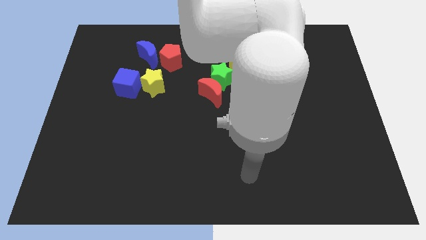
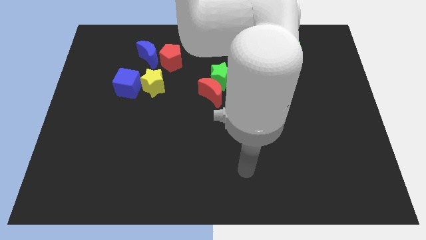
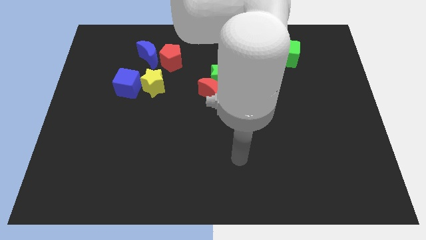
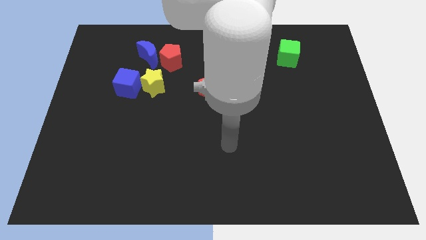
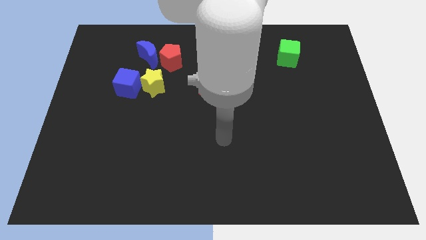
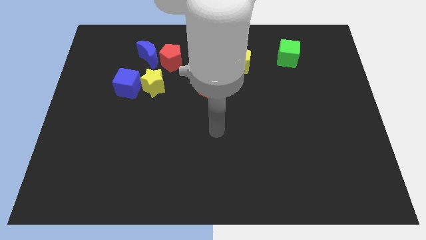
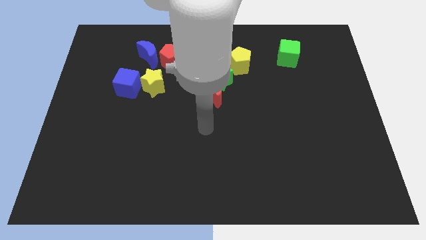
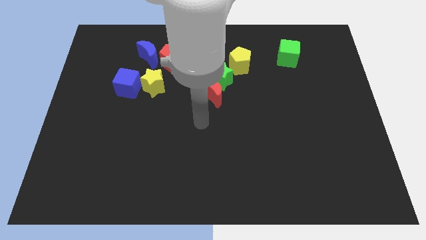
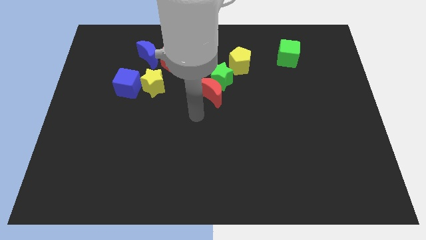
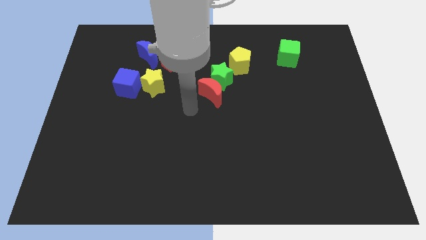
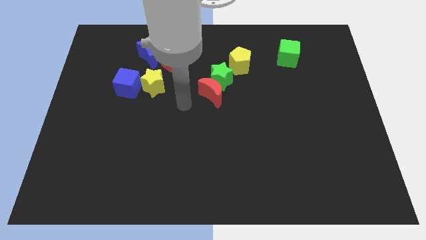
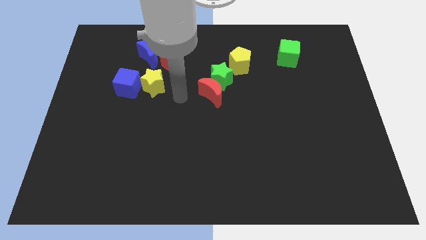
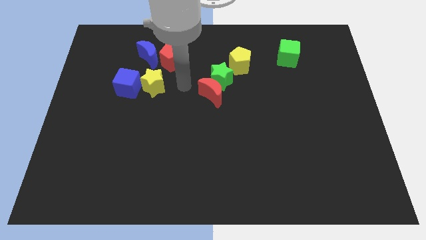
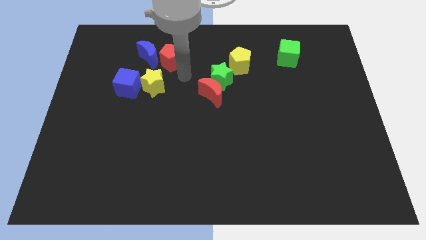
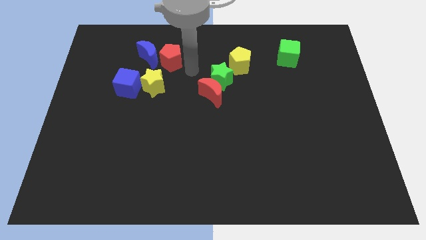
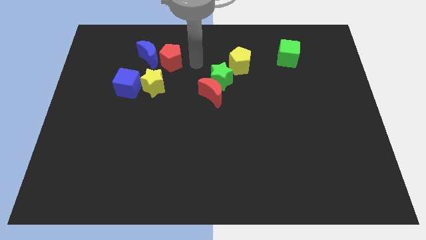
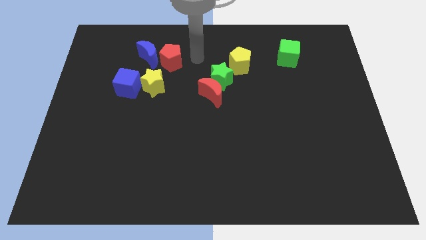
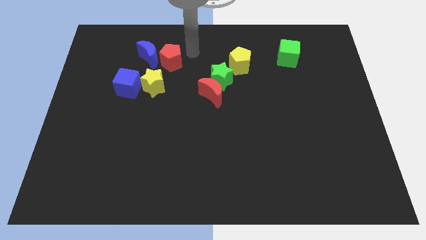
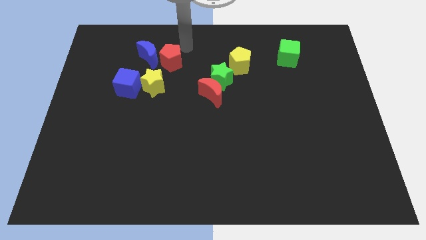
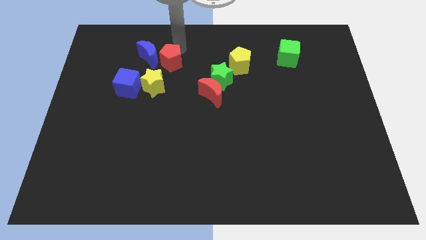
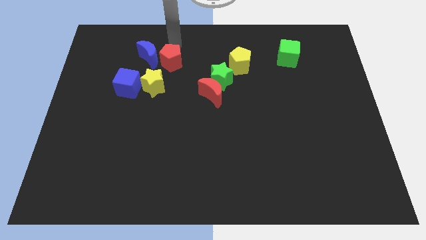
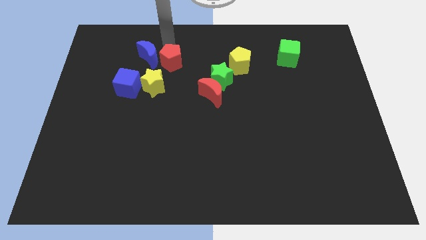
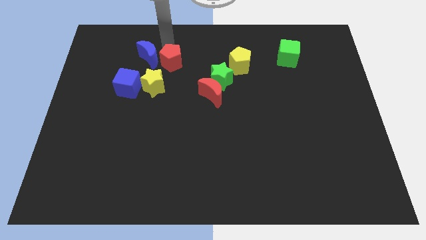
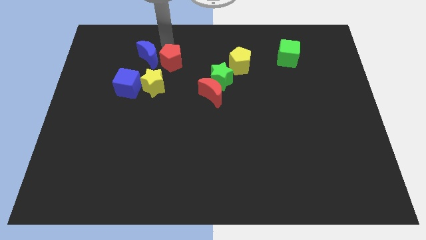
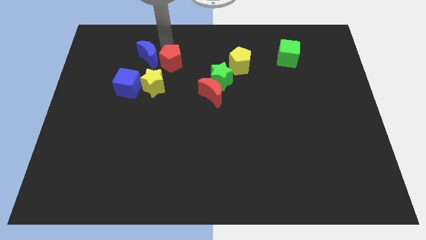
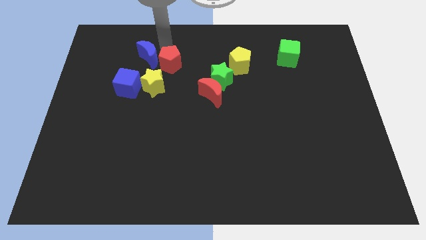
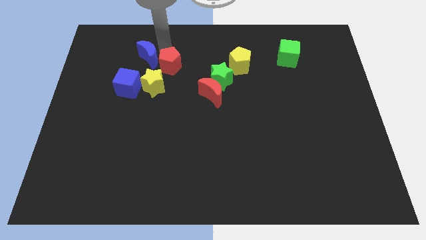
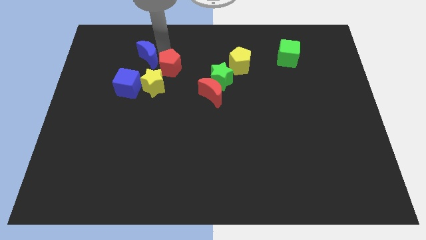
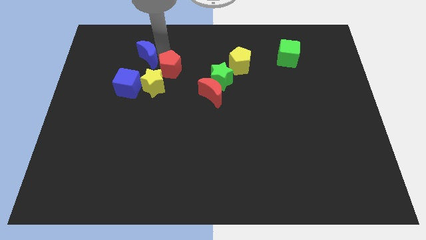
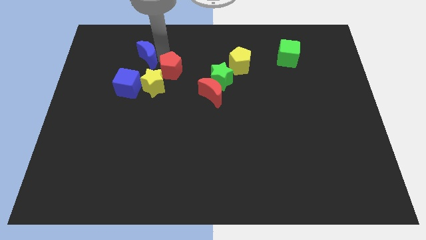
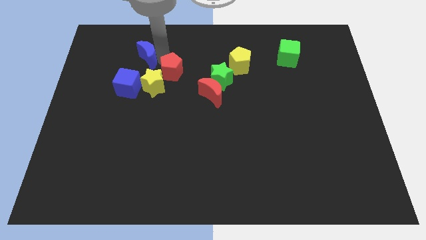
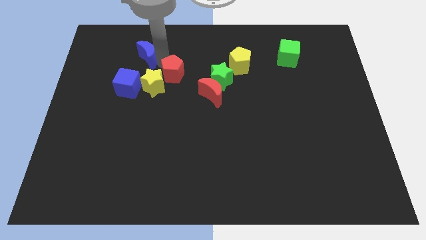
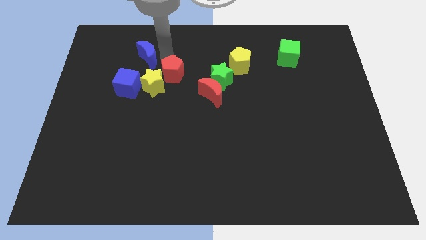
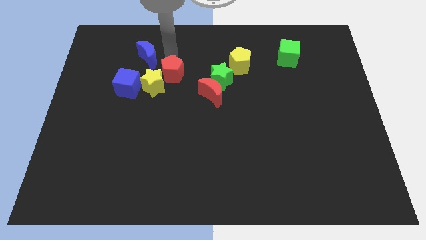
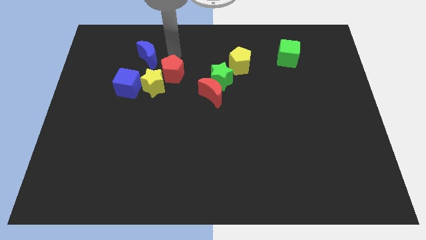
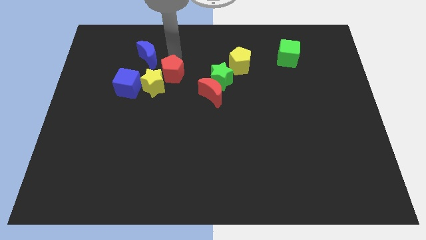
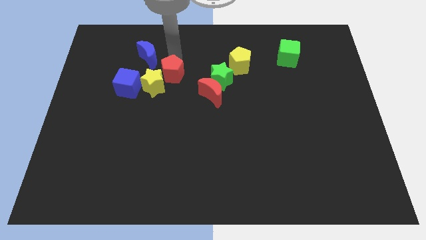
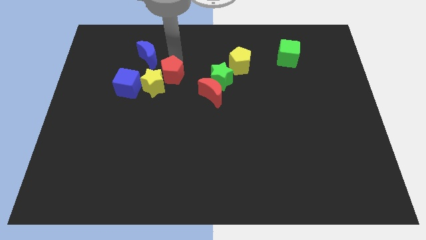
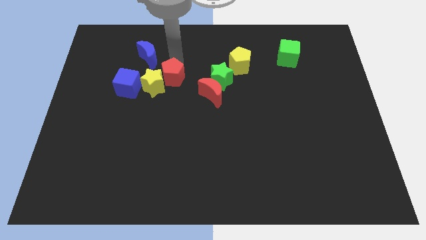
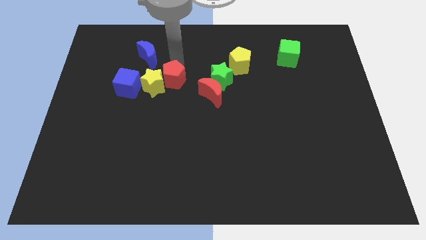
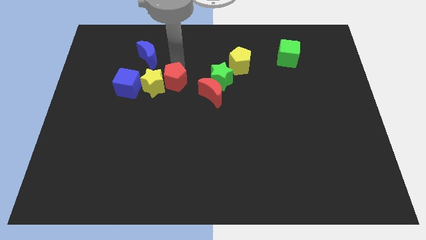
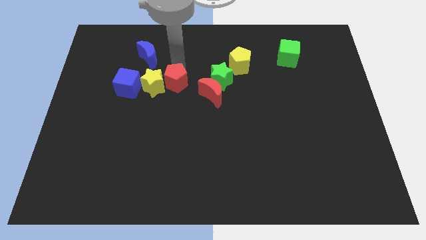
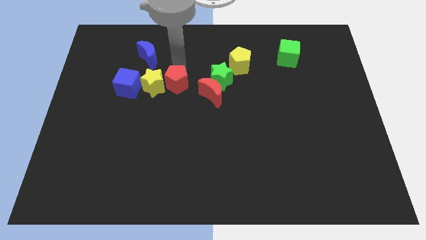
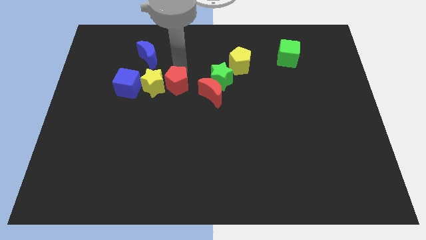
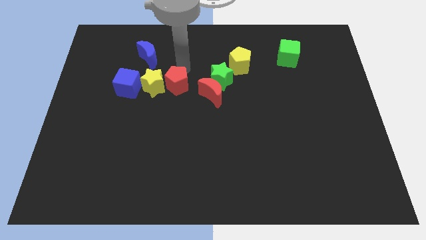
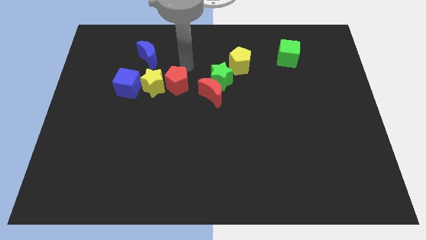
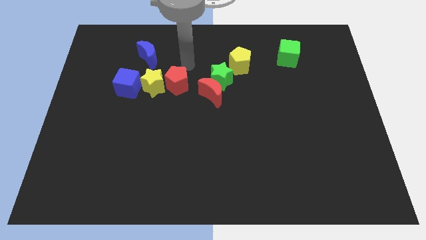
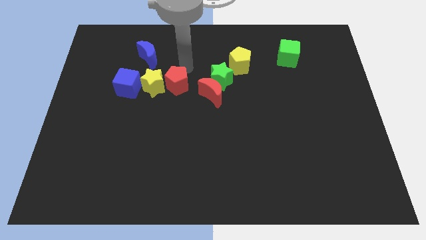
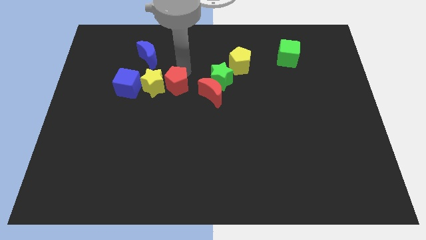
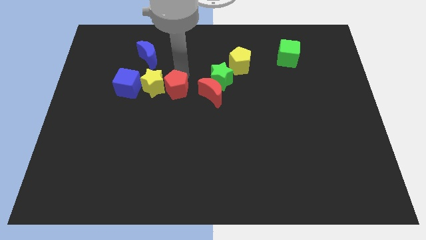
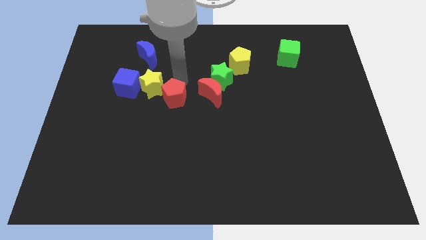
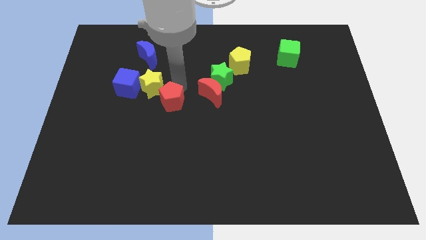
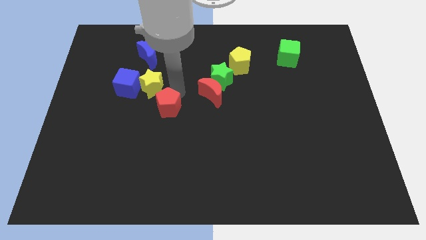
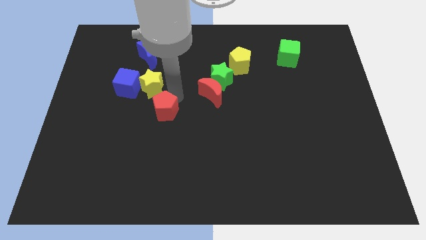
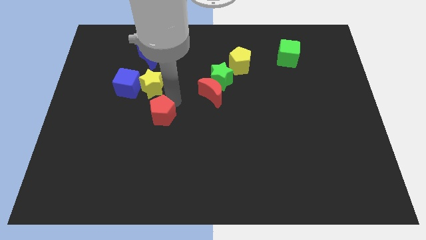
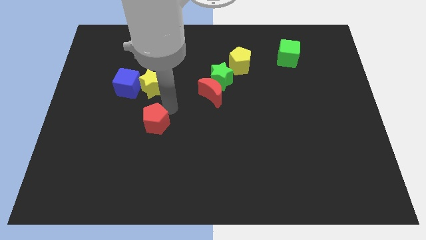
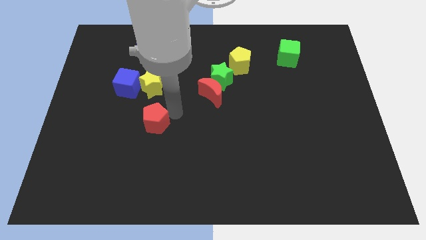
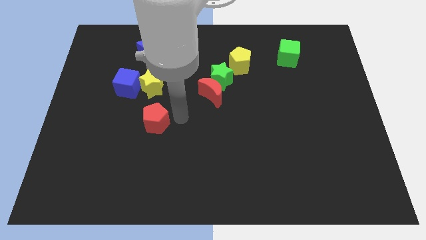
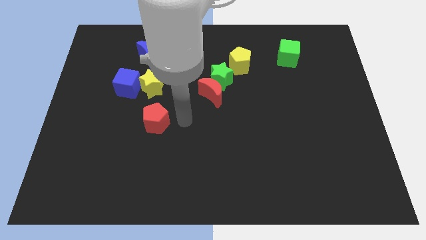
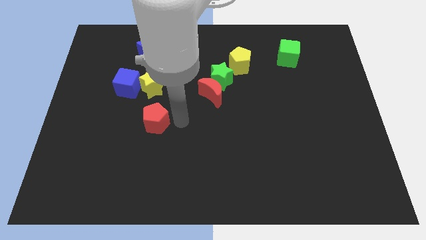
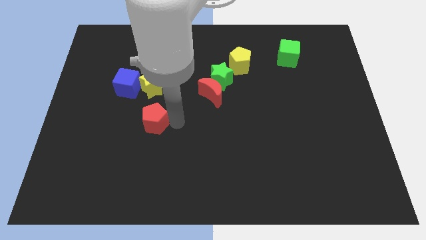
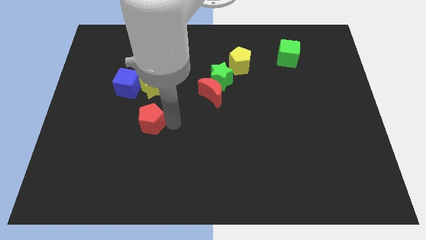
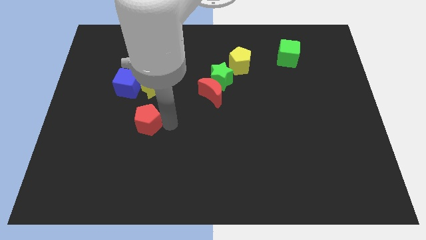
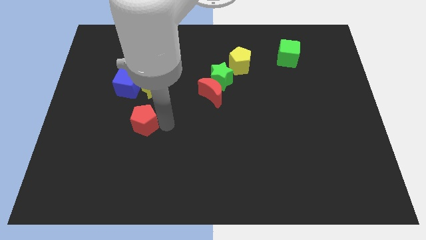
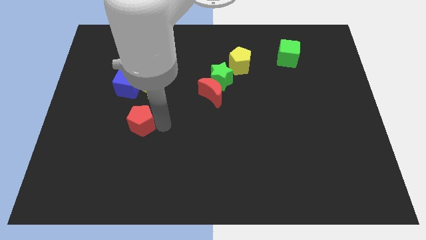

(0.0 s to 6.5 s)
put the red pentagon to the bottom of the blue cube

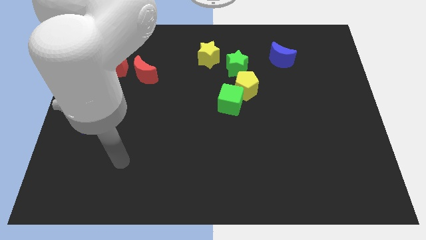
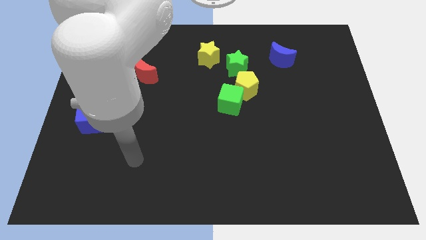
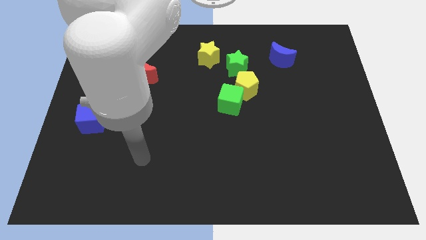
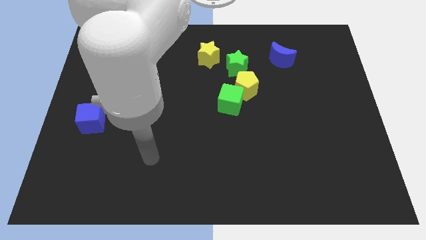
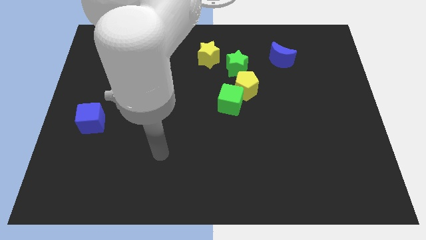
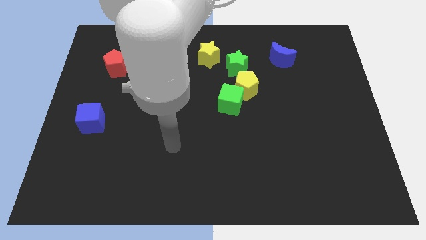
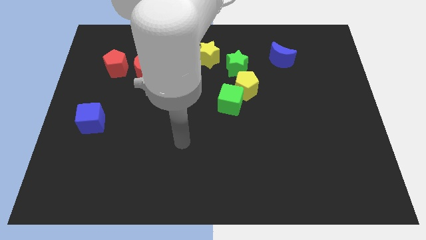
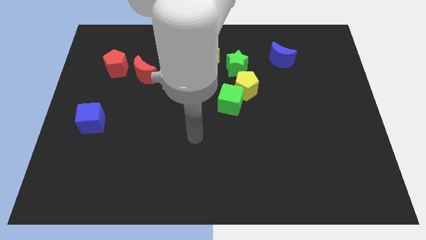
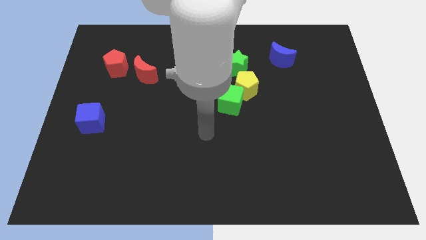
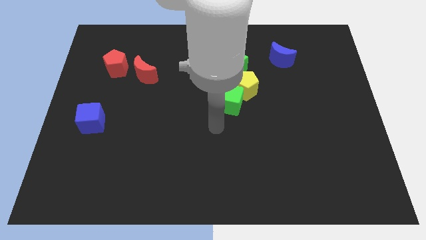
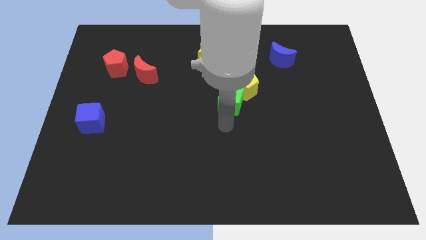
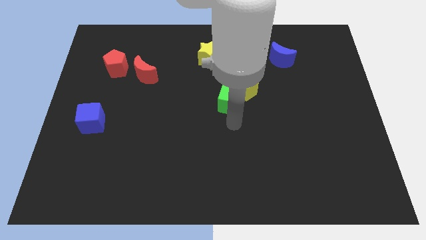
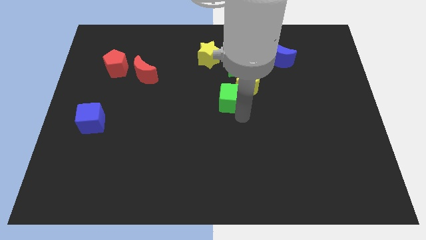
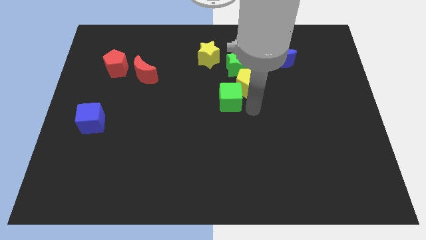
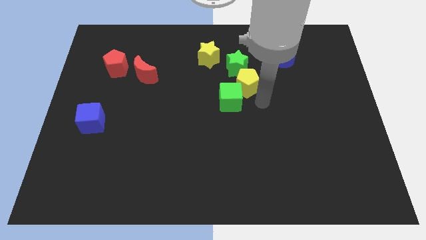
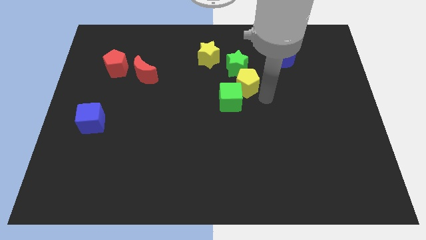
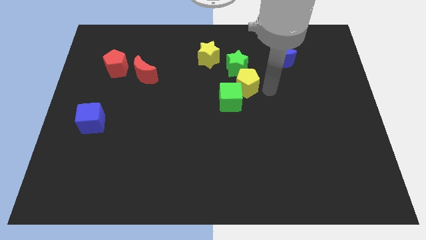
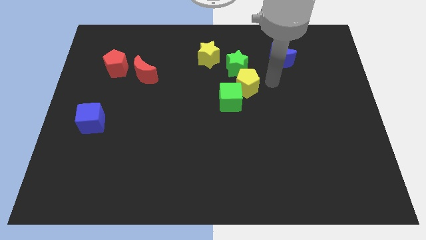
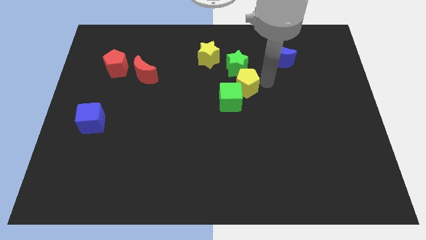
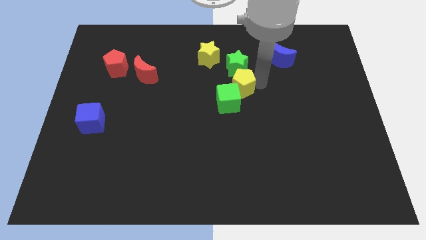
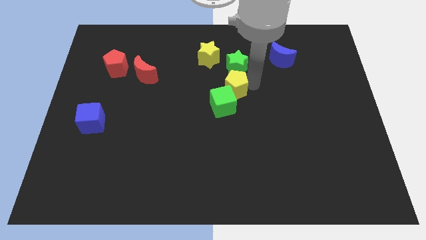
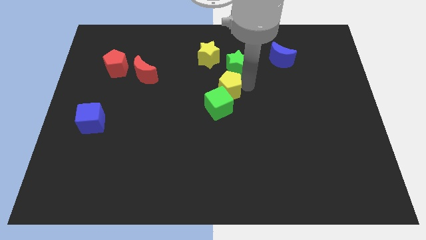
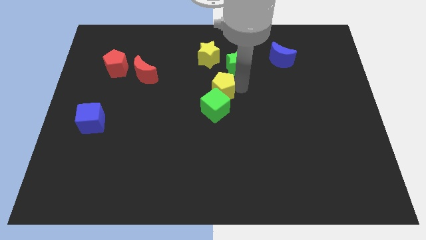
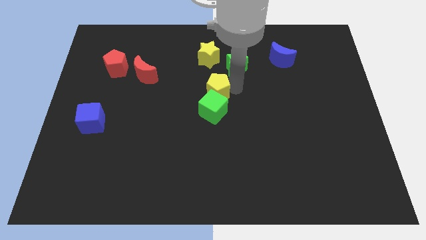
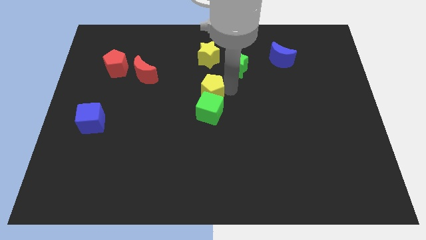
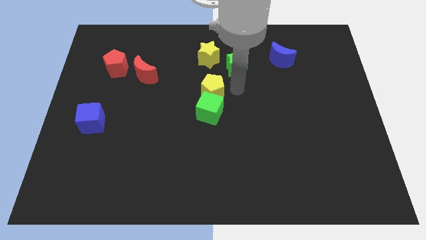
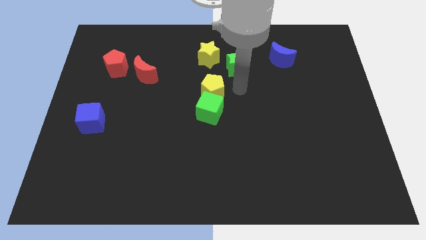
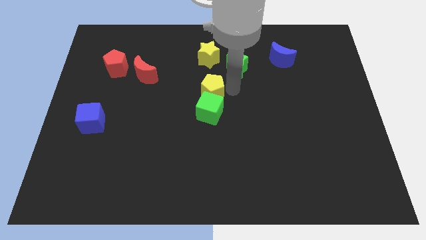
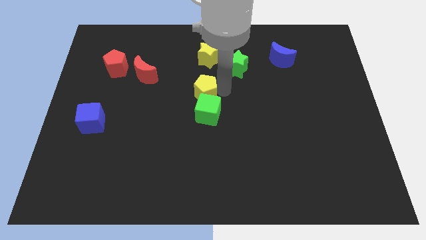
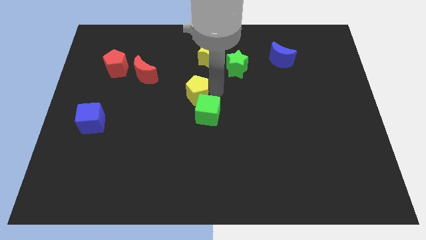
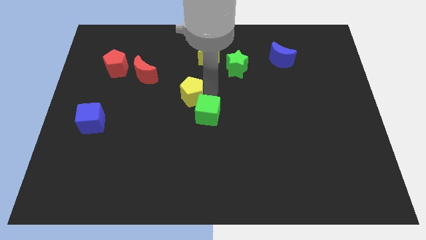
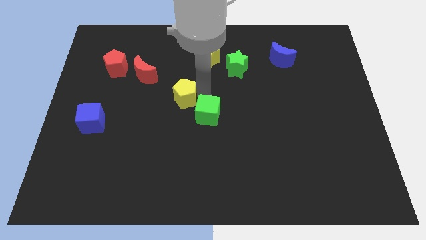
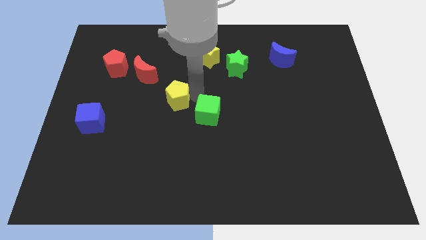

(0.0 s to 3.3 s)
put the yellow pentagon to the bottom right side of the red moon
